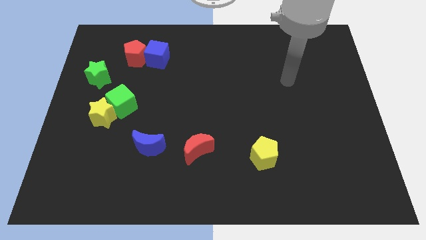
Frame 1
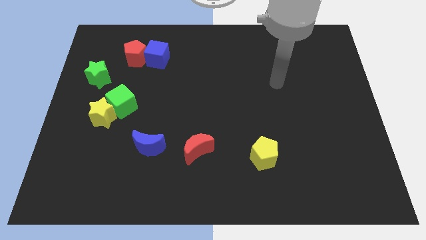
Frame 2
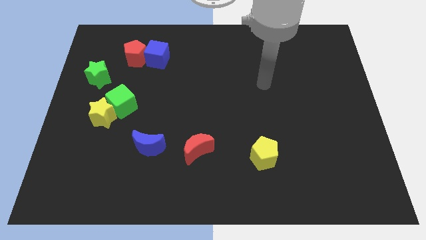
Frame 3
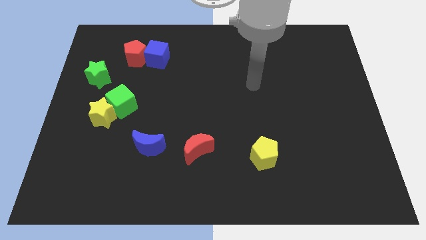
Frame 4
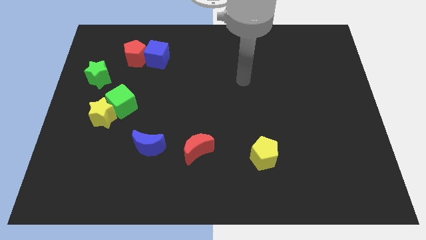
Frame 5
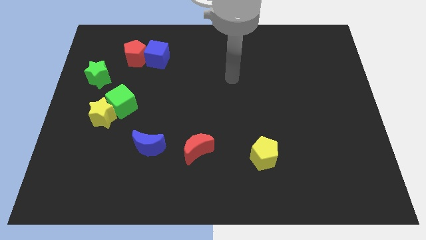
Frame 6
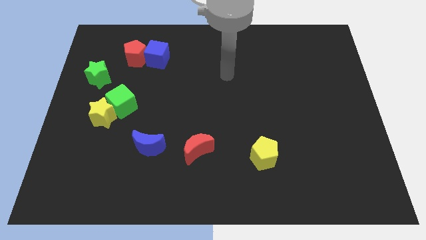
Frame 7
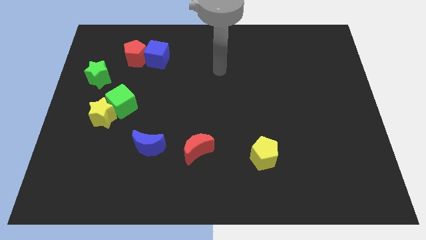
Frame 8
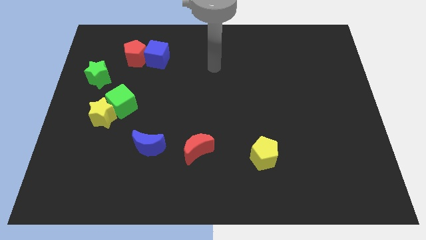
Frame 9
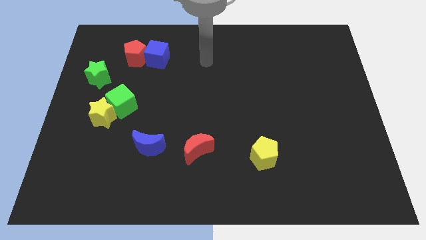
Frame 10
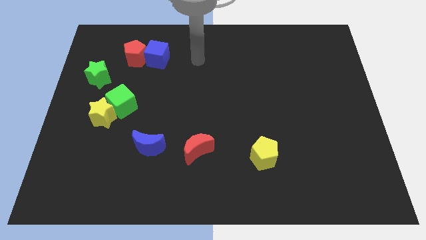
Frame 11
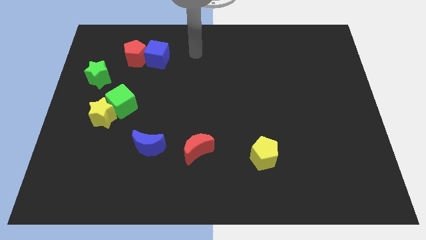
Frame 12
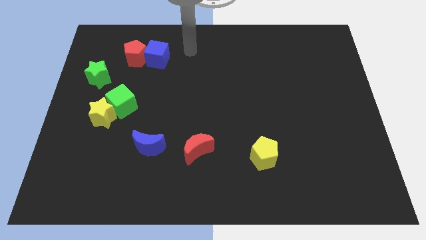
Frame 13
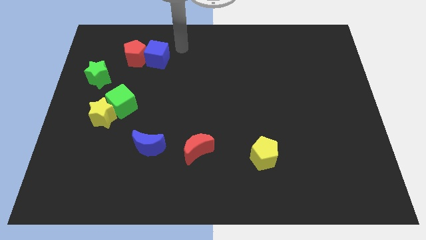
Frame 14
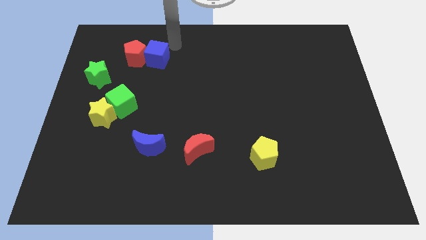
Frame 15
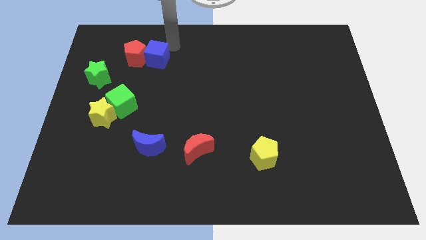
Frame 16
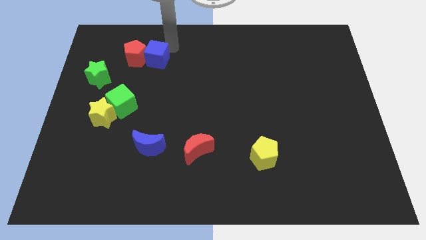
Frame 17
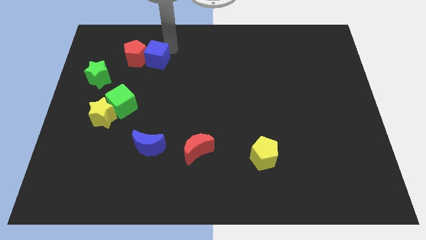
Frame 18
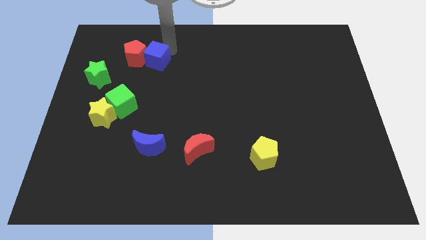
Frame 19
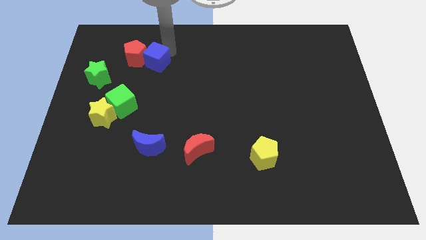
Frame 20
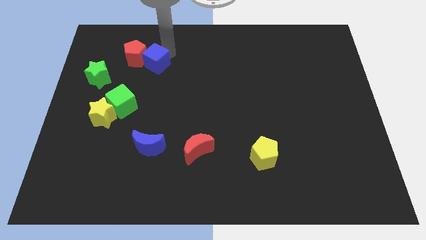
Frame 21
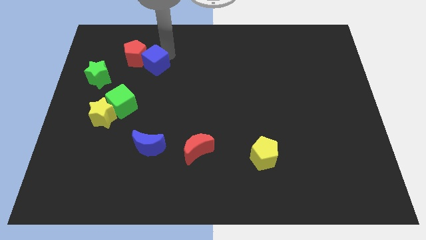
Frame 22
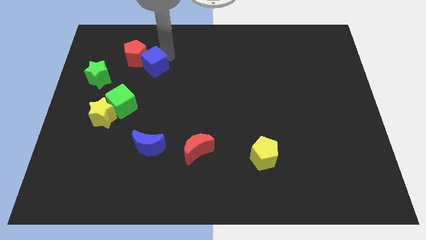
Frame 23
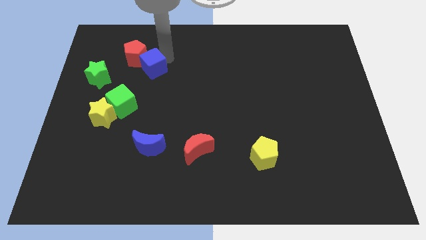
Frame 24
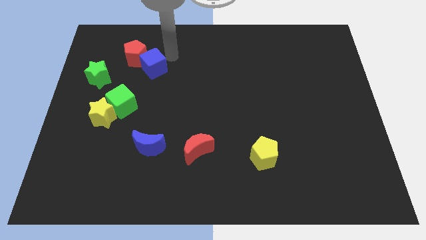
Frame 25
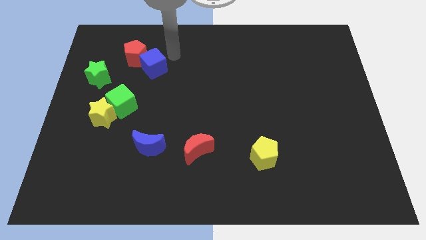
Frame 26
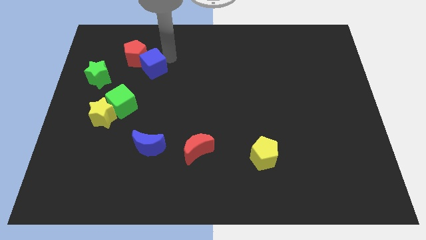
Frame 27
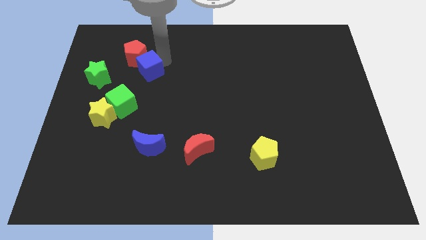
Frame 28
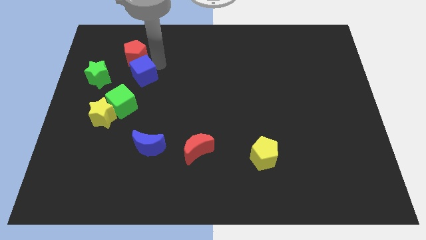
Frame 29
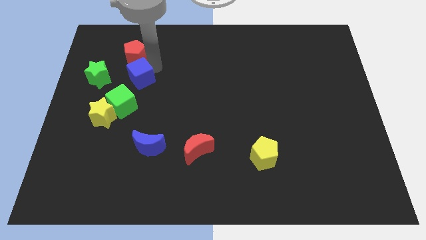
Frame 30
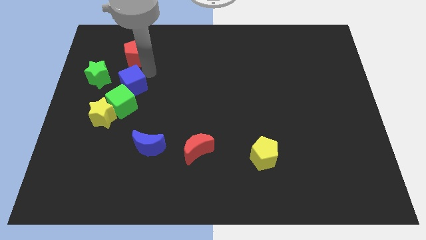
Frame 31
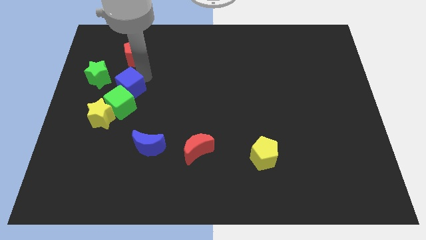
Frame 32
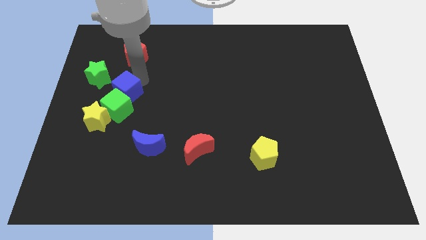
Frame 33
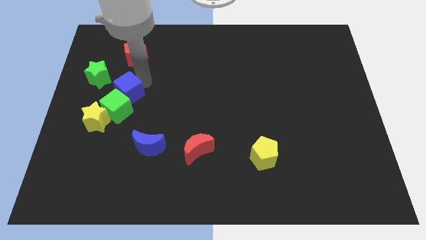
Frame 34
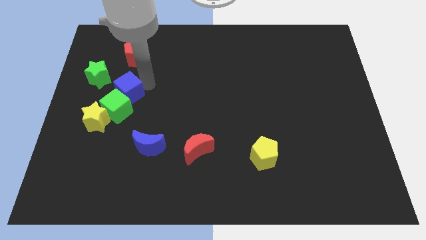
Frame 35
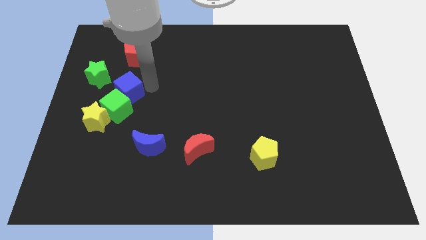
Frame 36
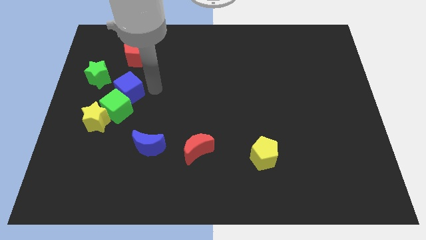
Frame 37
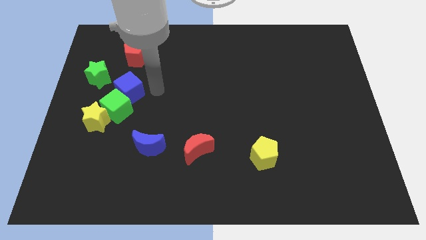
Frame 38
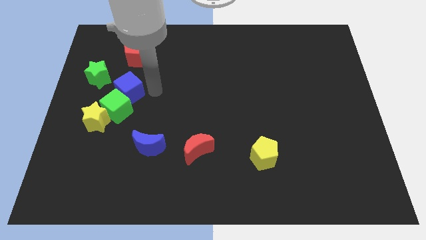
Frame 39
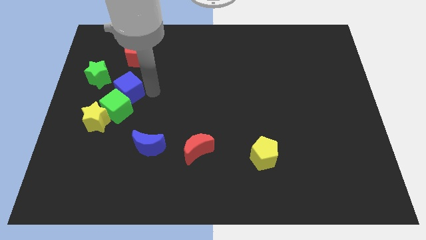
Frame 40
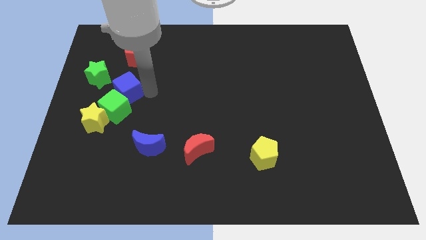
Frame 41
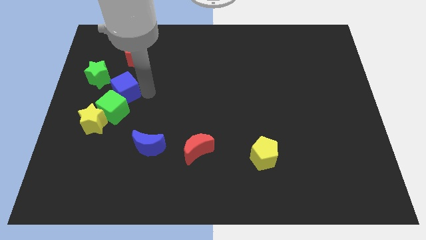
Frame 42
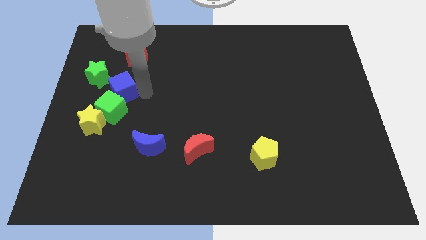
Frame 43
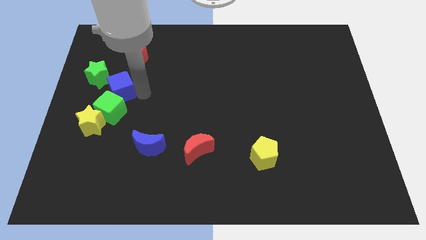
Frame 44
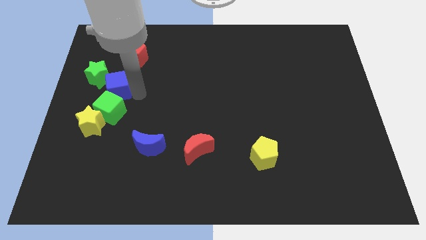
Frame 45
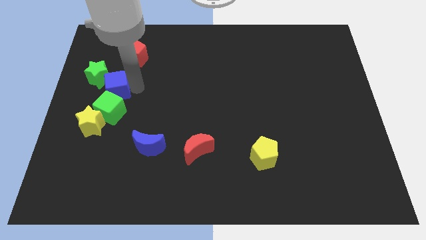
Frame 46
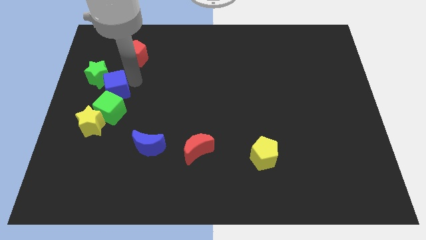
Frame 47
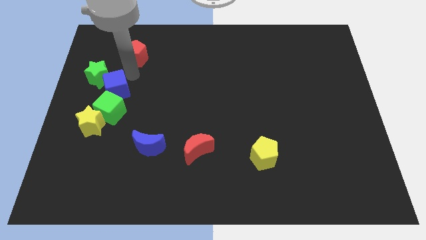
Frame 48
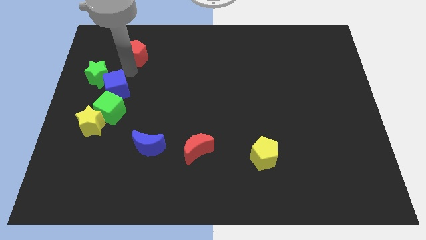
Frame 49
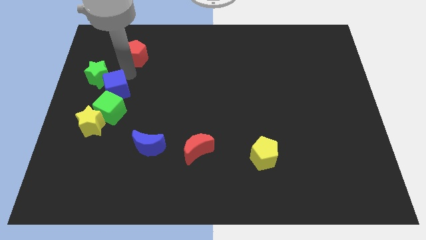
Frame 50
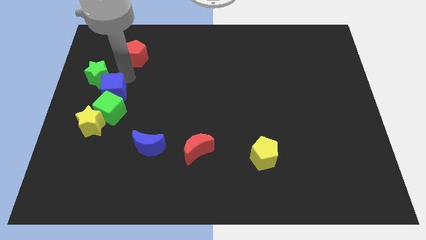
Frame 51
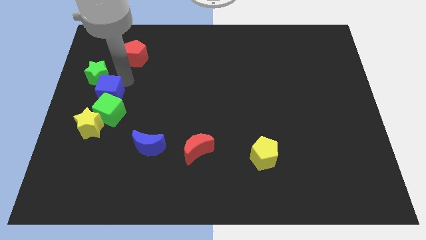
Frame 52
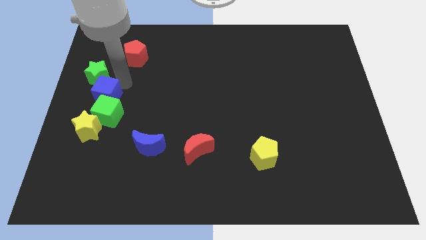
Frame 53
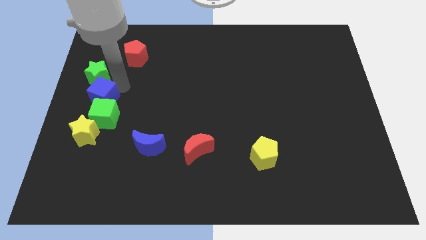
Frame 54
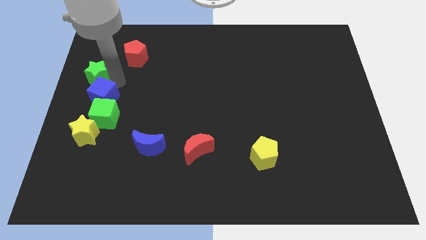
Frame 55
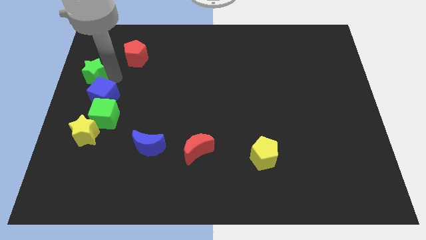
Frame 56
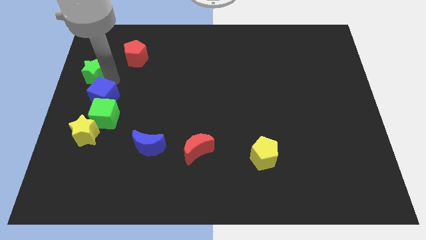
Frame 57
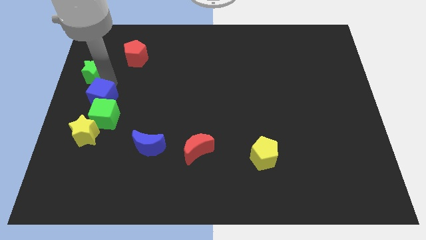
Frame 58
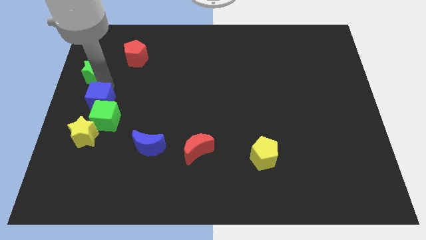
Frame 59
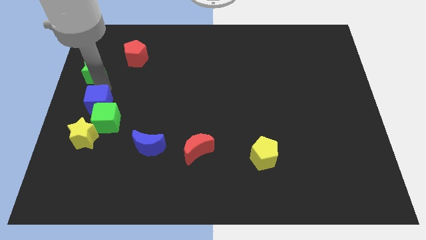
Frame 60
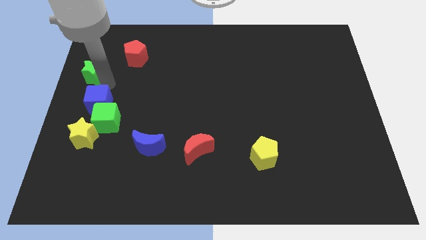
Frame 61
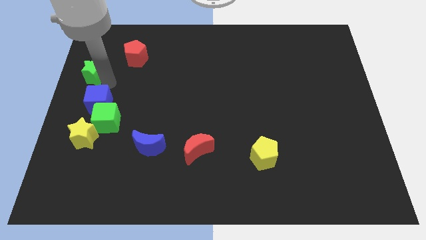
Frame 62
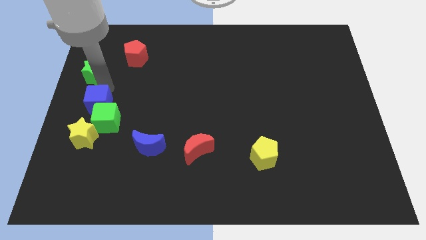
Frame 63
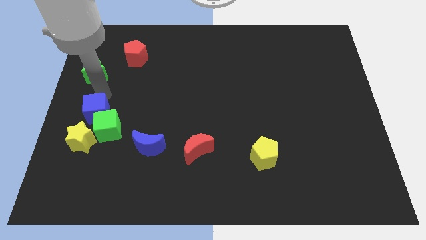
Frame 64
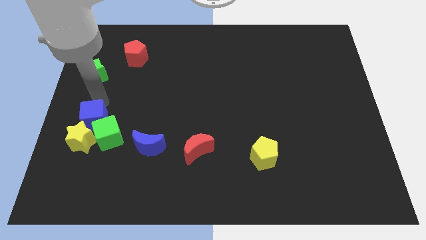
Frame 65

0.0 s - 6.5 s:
move the blue cube to the yellow star
